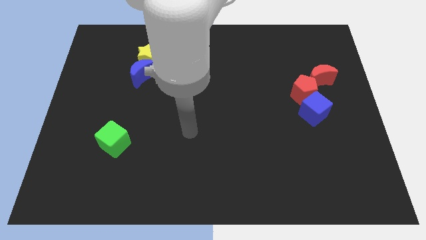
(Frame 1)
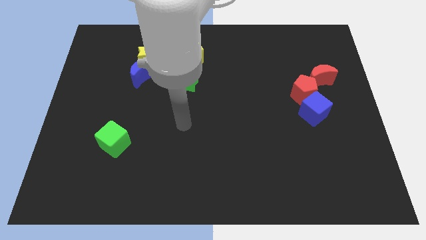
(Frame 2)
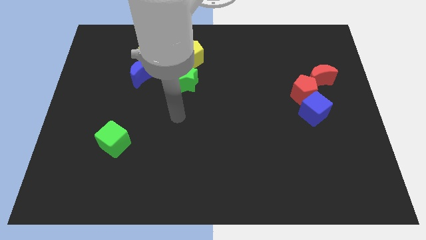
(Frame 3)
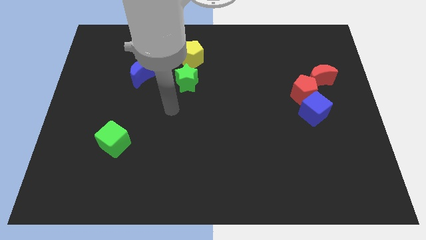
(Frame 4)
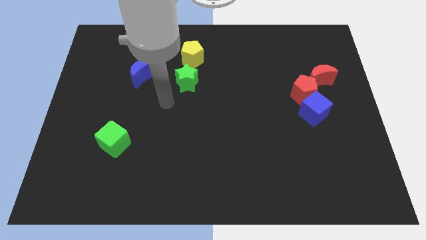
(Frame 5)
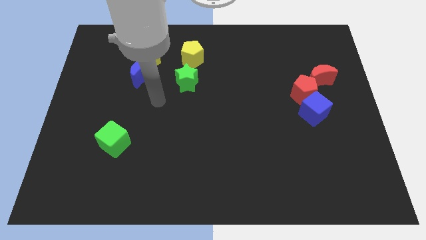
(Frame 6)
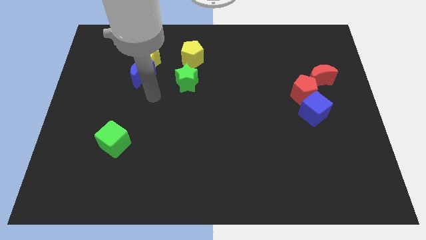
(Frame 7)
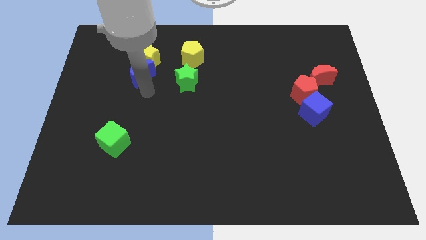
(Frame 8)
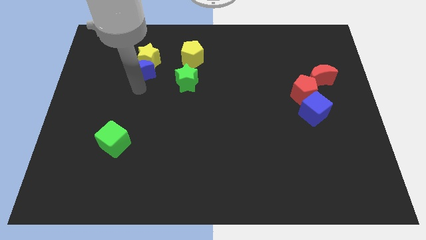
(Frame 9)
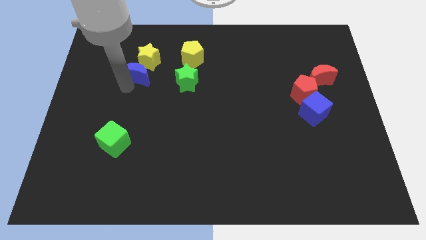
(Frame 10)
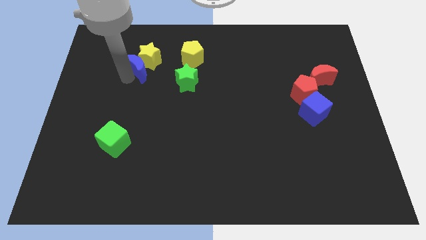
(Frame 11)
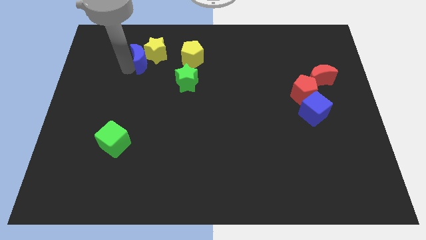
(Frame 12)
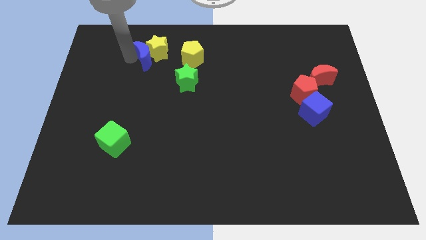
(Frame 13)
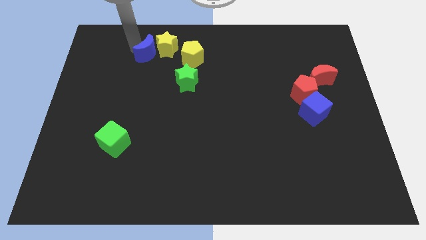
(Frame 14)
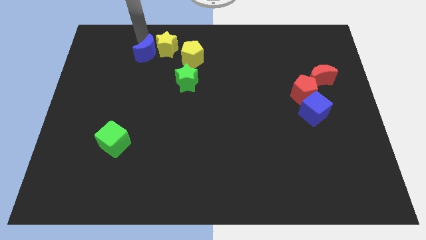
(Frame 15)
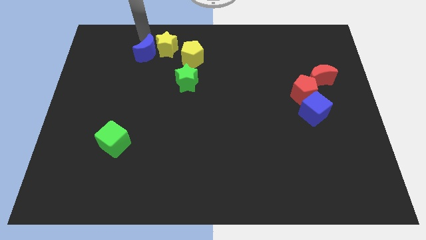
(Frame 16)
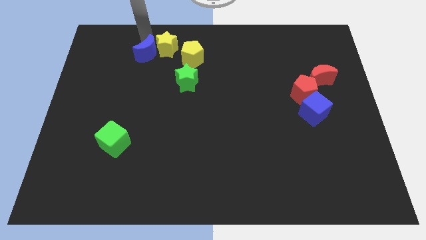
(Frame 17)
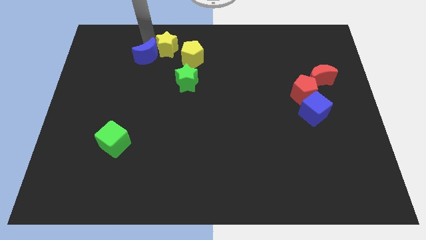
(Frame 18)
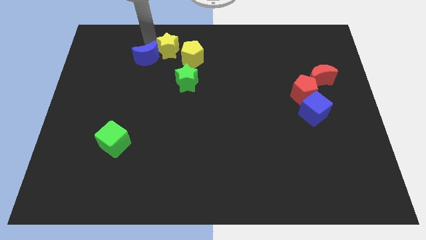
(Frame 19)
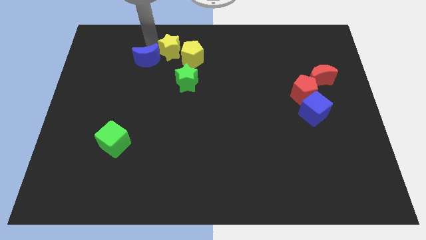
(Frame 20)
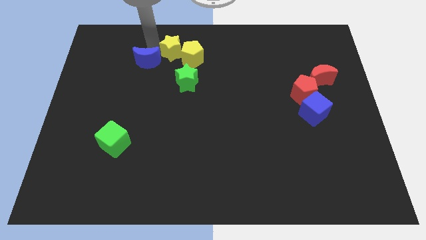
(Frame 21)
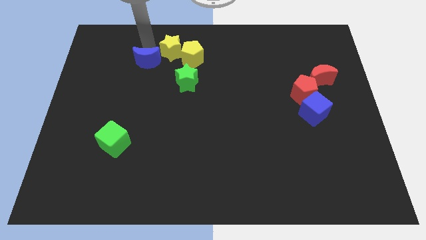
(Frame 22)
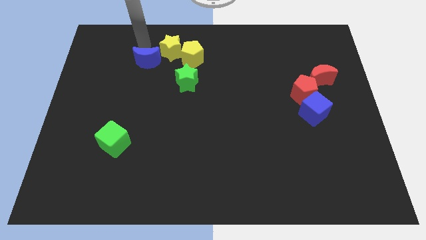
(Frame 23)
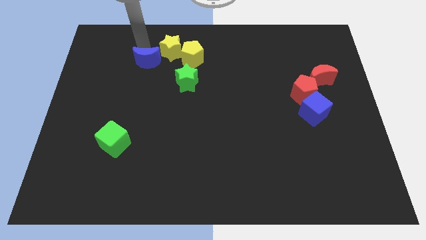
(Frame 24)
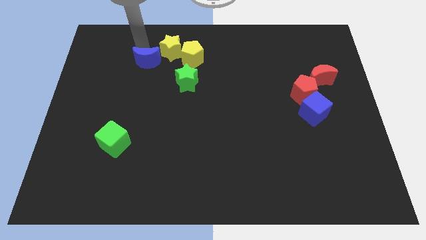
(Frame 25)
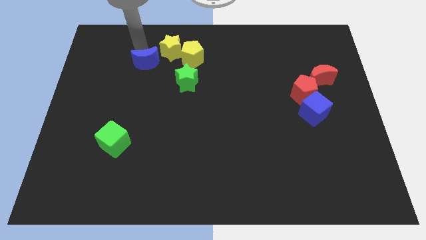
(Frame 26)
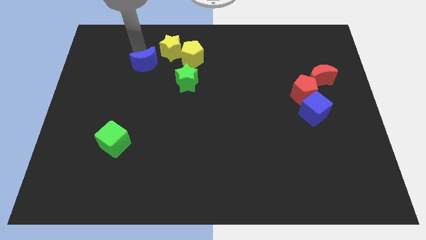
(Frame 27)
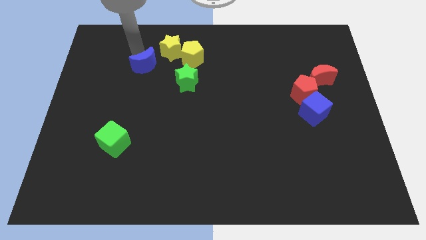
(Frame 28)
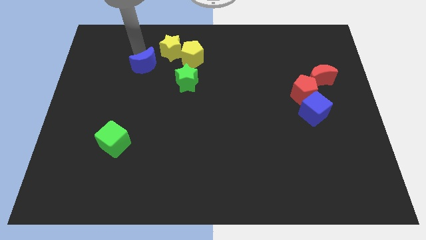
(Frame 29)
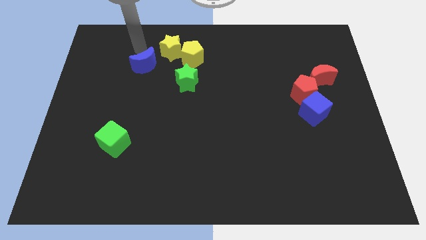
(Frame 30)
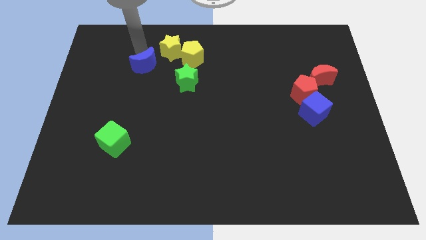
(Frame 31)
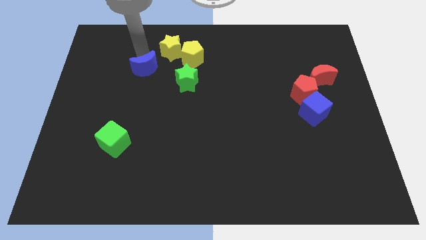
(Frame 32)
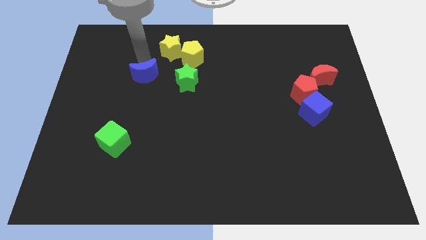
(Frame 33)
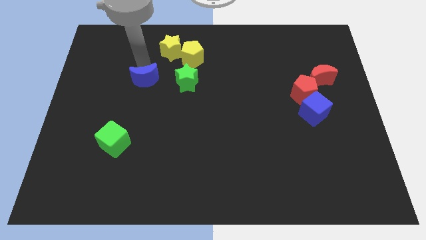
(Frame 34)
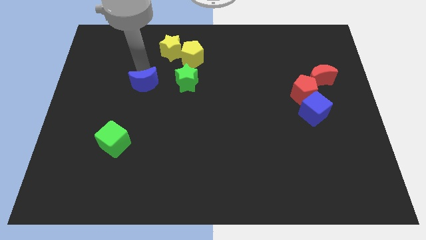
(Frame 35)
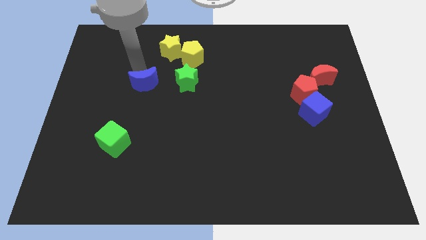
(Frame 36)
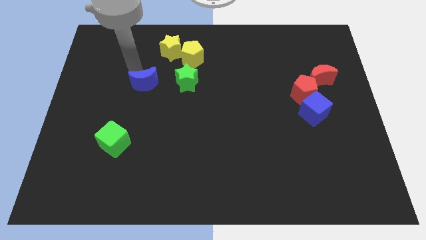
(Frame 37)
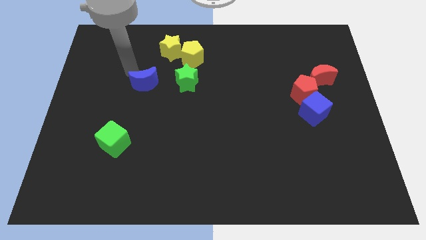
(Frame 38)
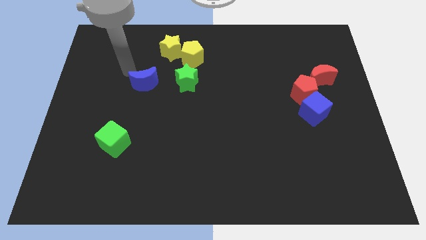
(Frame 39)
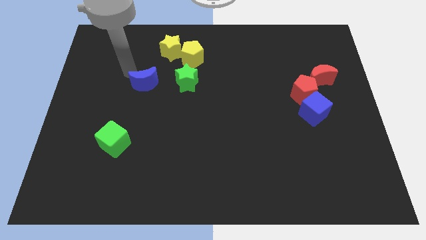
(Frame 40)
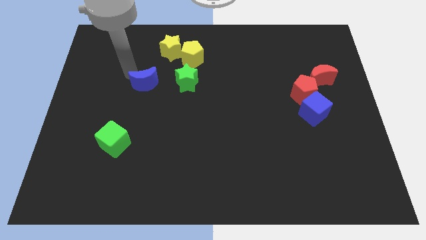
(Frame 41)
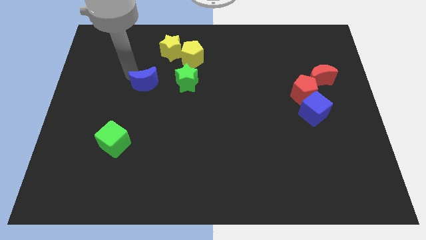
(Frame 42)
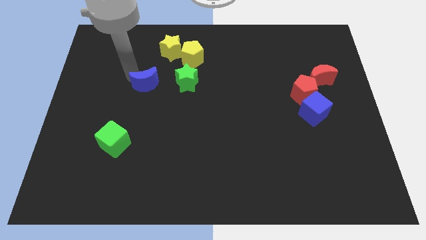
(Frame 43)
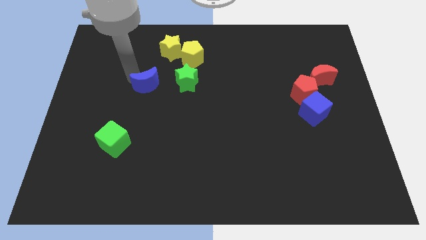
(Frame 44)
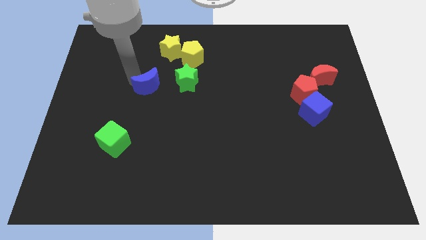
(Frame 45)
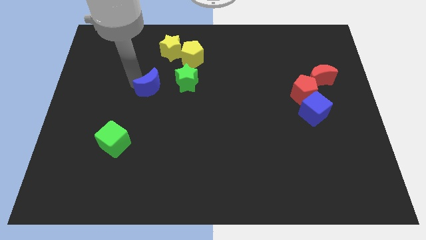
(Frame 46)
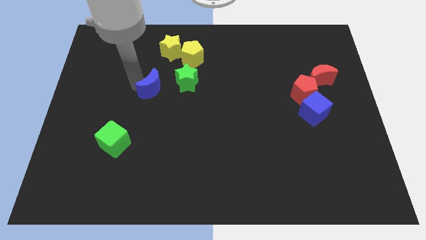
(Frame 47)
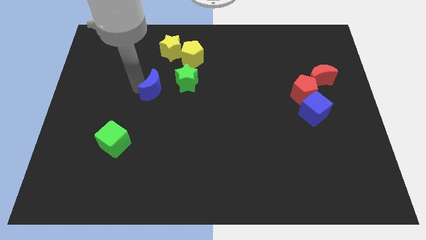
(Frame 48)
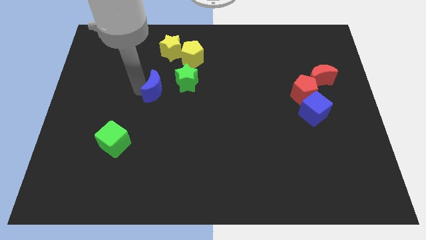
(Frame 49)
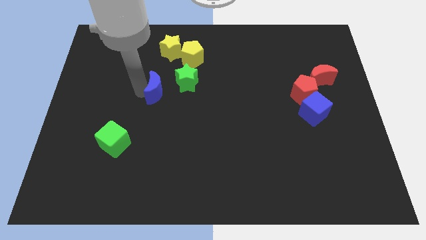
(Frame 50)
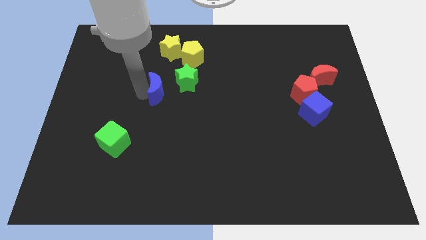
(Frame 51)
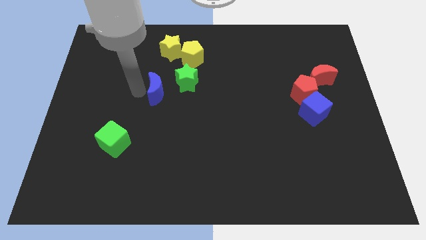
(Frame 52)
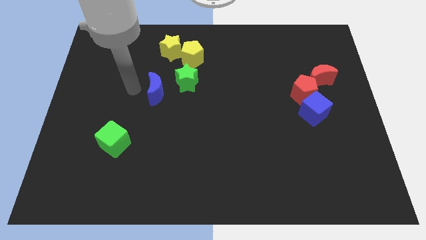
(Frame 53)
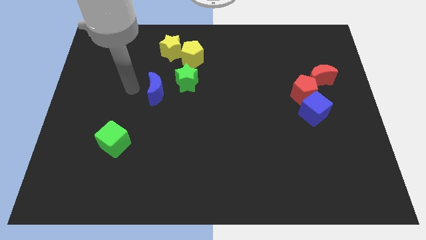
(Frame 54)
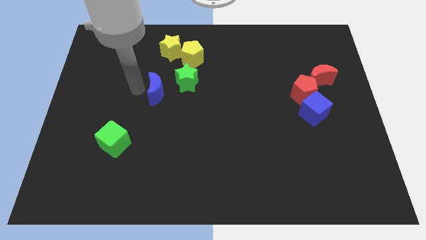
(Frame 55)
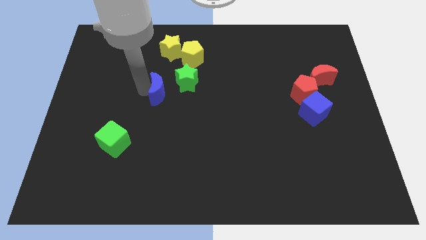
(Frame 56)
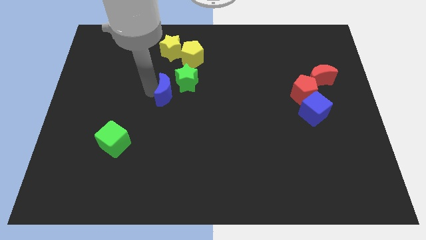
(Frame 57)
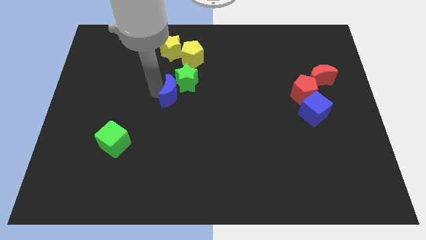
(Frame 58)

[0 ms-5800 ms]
slide the blue moon below the yellow pentagon
